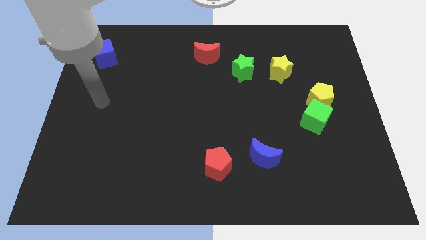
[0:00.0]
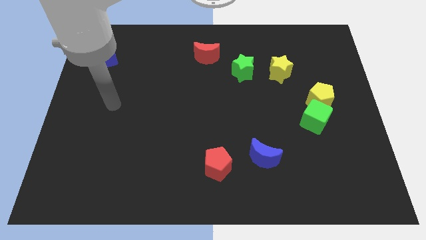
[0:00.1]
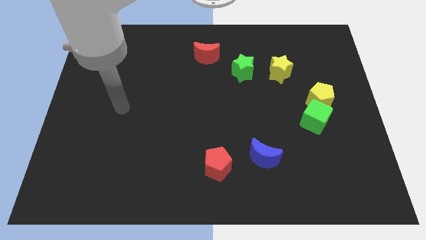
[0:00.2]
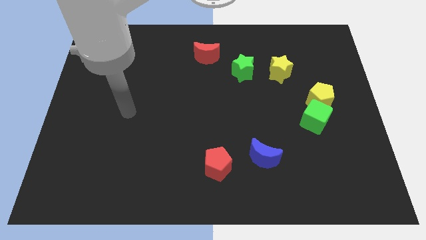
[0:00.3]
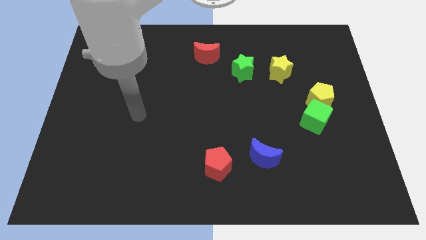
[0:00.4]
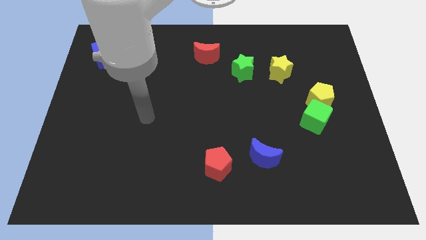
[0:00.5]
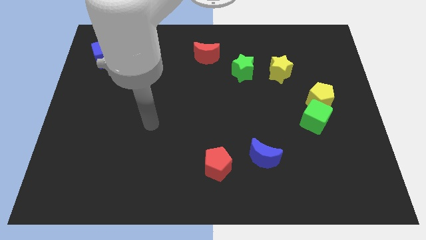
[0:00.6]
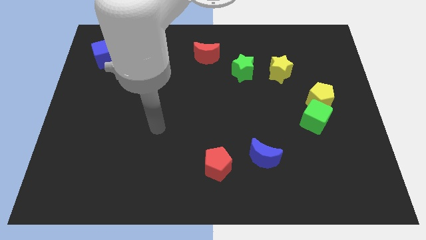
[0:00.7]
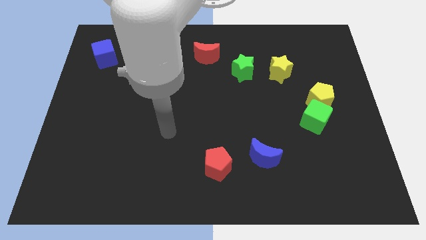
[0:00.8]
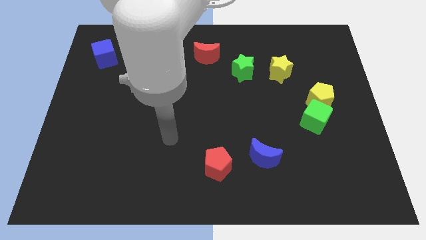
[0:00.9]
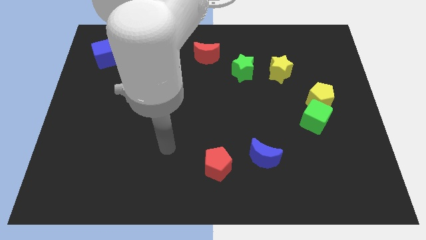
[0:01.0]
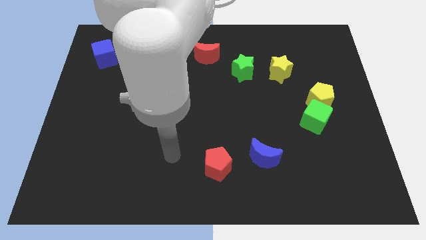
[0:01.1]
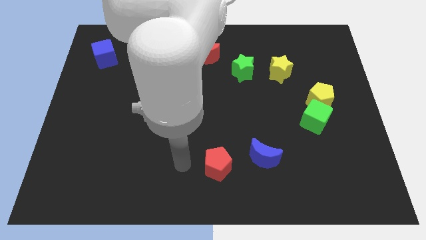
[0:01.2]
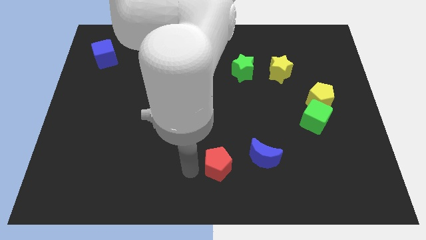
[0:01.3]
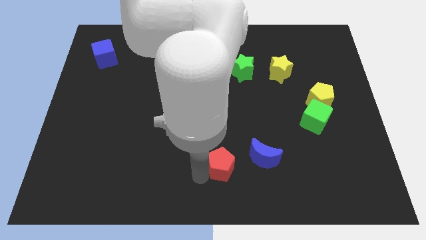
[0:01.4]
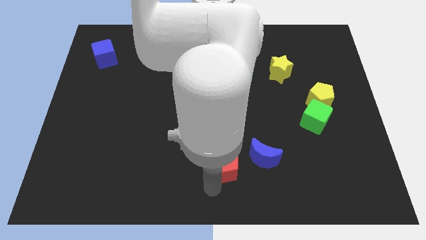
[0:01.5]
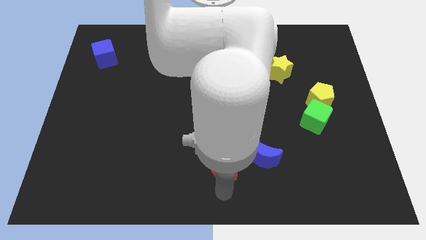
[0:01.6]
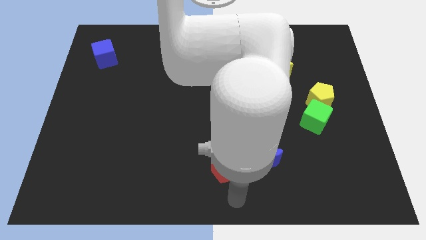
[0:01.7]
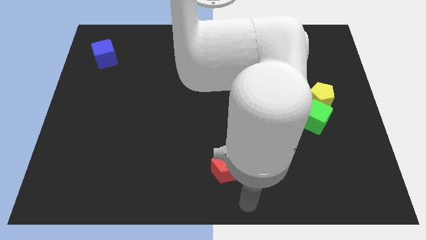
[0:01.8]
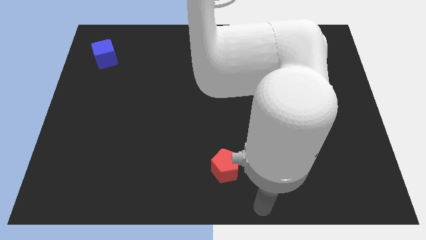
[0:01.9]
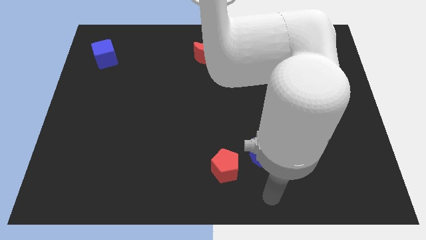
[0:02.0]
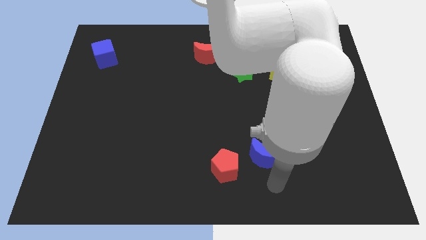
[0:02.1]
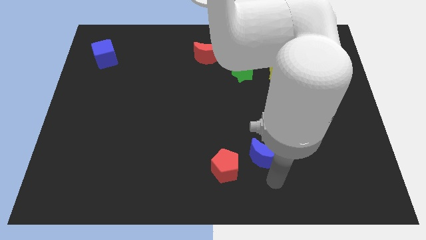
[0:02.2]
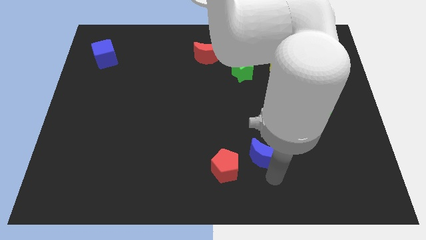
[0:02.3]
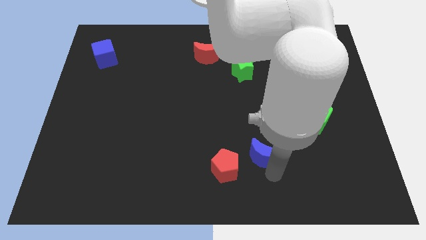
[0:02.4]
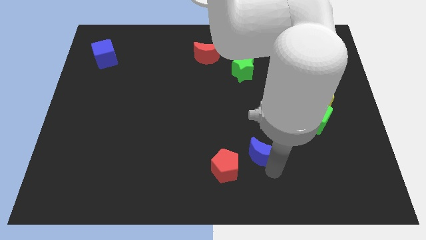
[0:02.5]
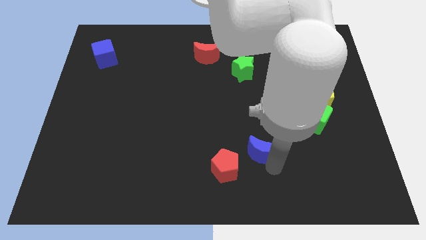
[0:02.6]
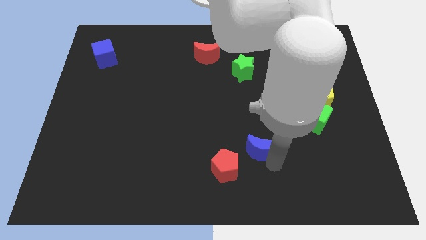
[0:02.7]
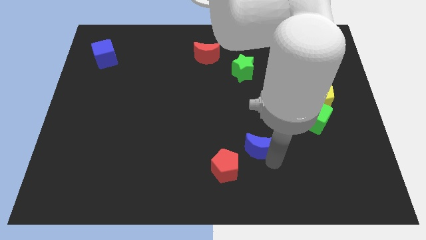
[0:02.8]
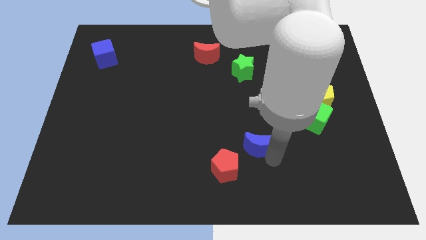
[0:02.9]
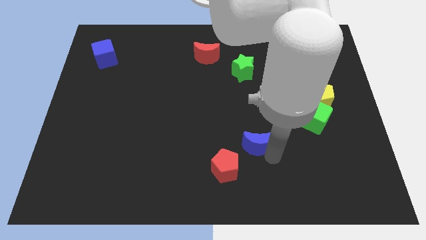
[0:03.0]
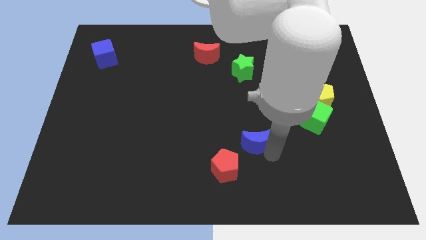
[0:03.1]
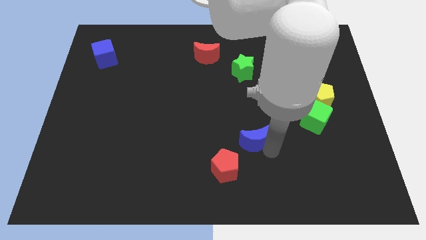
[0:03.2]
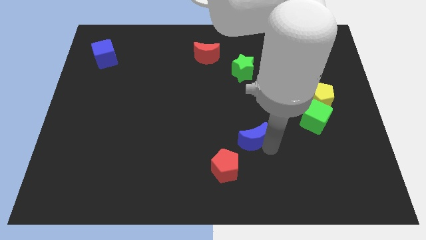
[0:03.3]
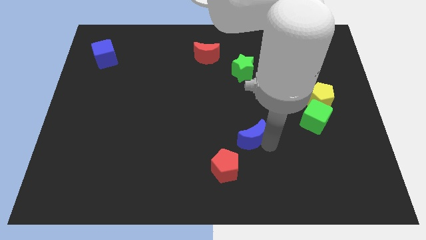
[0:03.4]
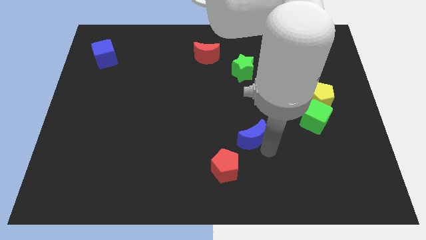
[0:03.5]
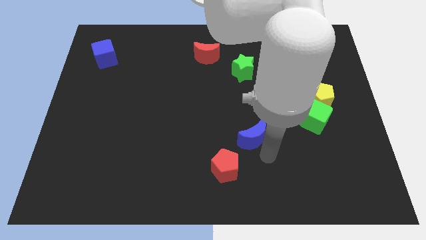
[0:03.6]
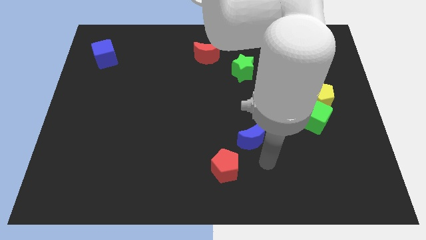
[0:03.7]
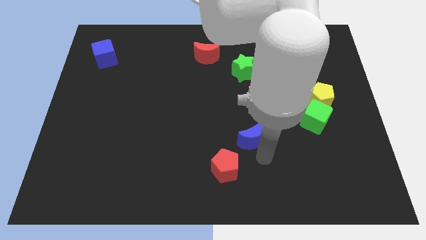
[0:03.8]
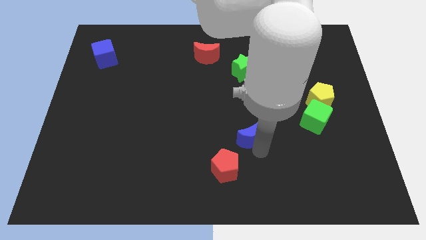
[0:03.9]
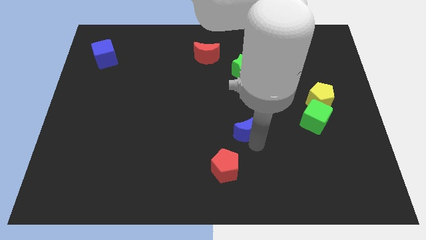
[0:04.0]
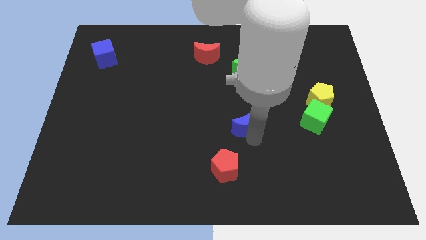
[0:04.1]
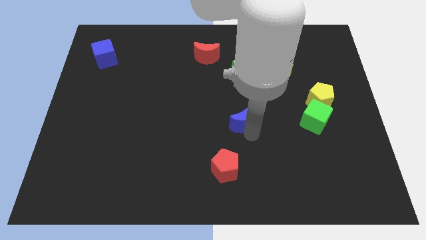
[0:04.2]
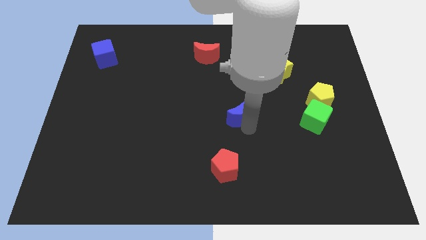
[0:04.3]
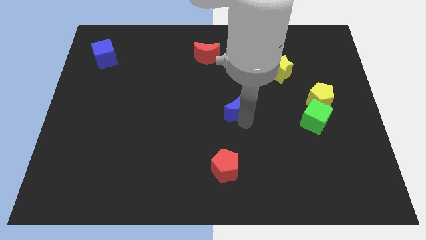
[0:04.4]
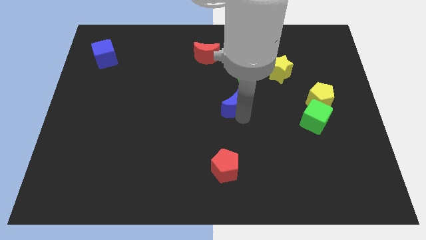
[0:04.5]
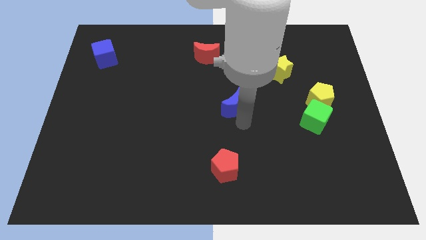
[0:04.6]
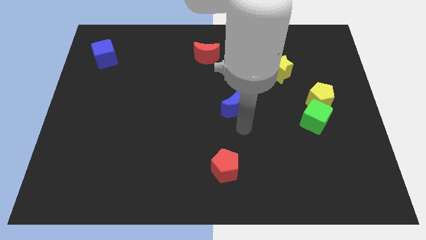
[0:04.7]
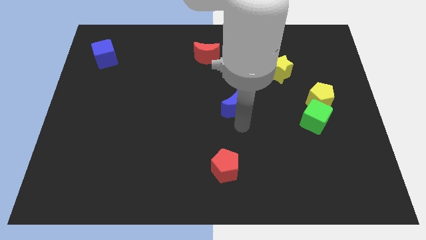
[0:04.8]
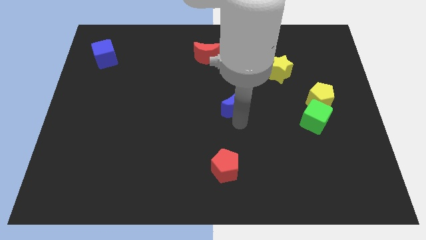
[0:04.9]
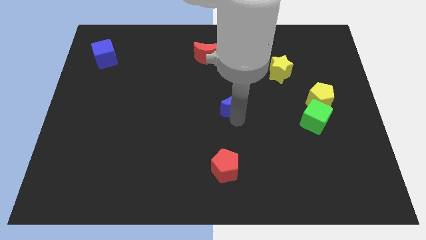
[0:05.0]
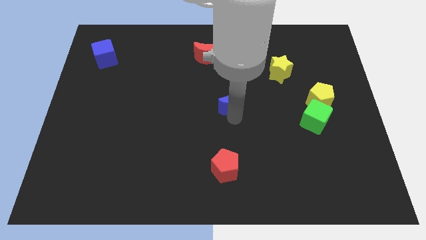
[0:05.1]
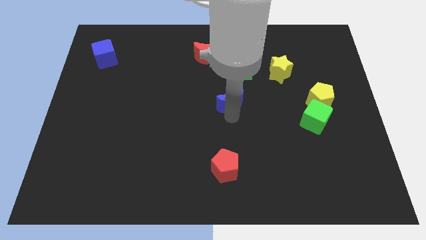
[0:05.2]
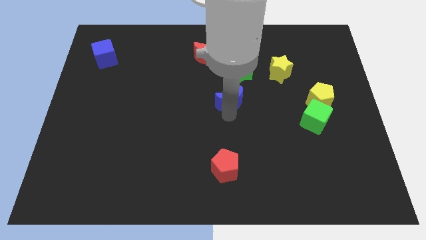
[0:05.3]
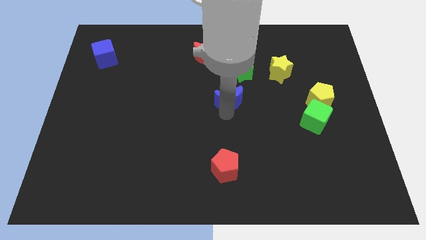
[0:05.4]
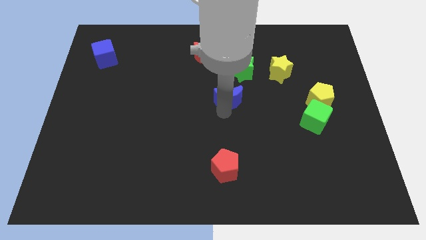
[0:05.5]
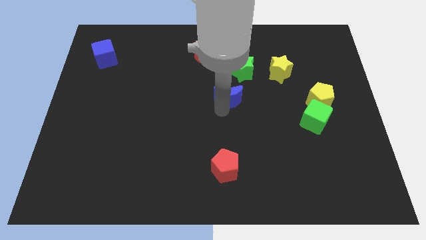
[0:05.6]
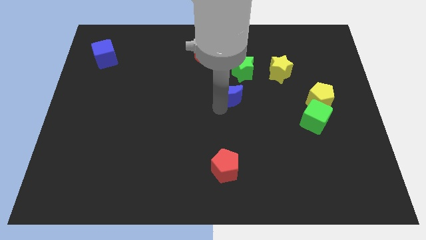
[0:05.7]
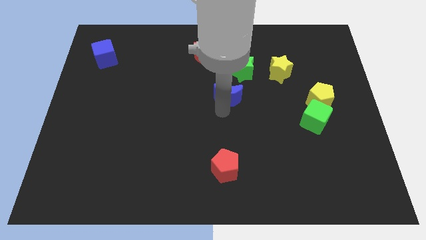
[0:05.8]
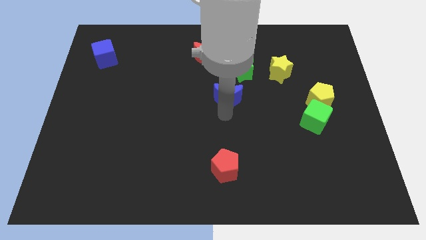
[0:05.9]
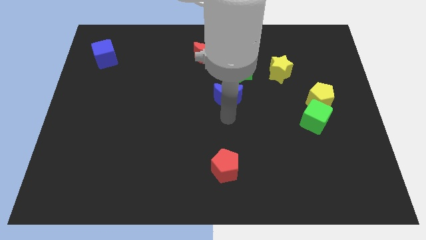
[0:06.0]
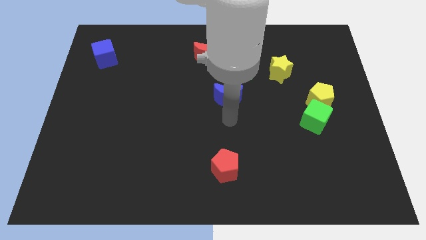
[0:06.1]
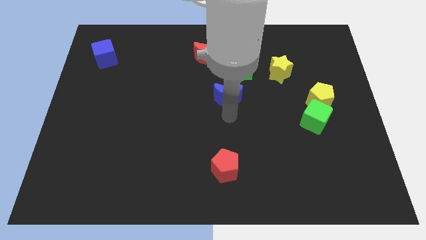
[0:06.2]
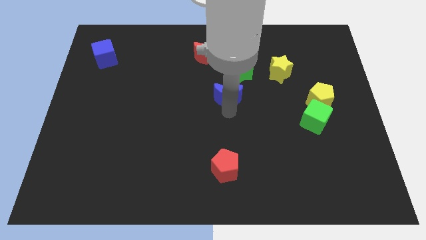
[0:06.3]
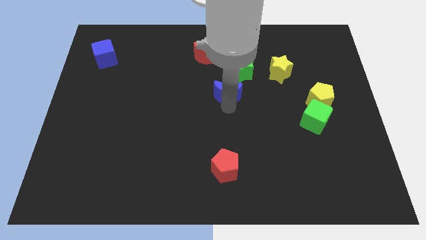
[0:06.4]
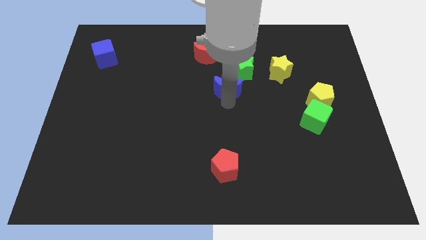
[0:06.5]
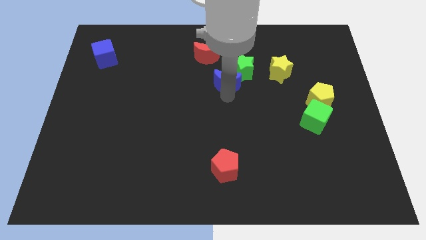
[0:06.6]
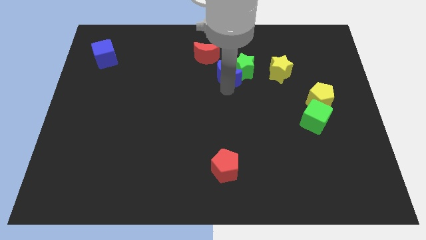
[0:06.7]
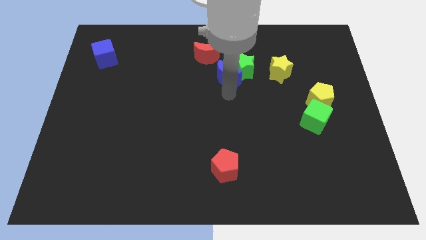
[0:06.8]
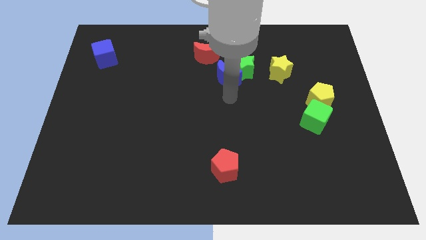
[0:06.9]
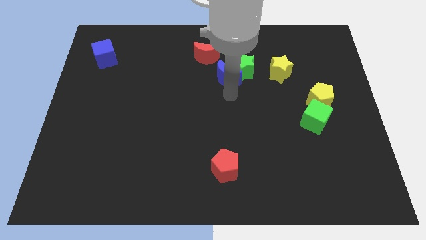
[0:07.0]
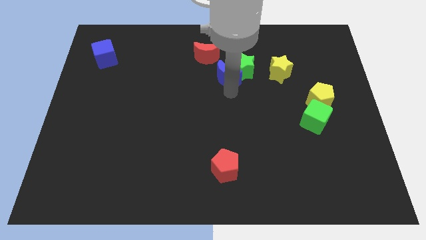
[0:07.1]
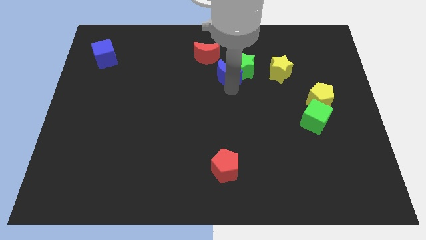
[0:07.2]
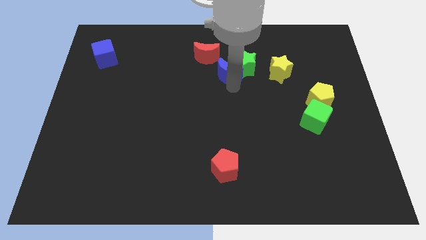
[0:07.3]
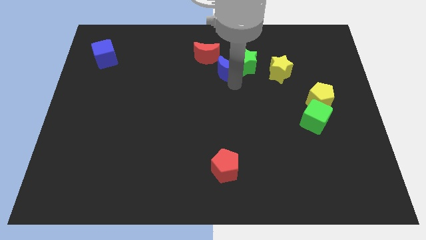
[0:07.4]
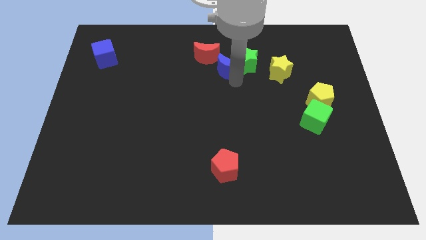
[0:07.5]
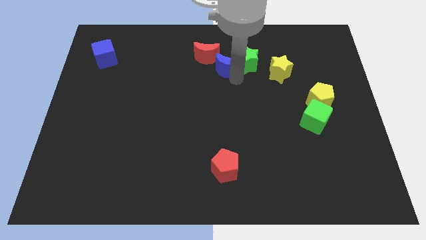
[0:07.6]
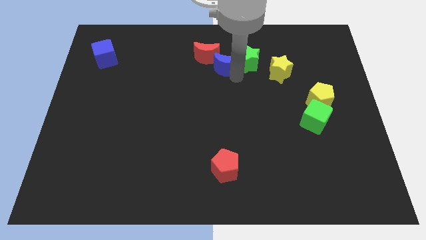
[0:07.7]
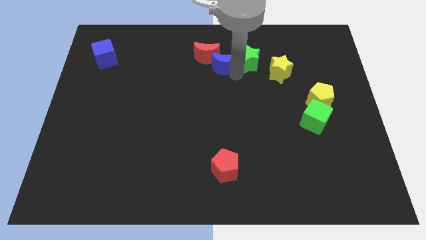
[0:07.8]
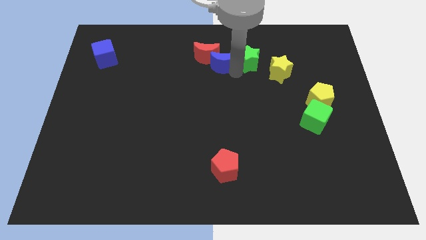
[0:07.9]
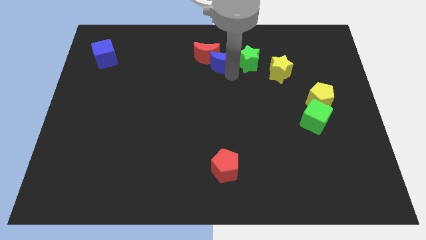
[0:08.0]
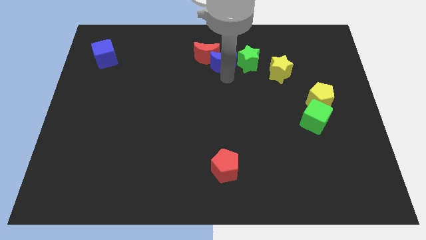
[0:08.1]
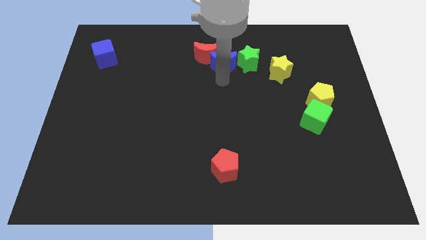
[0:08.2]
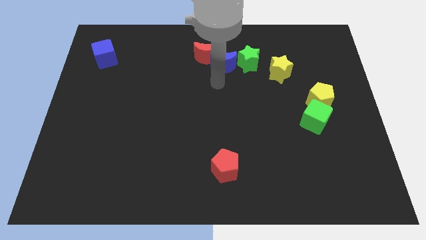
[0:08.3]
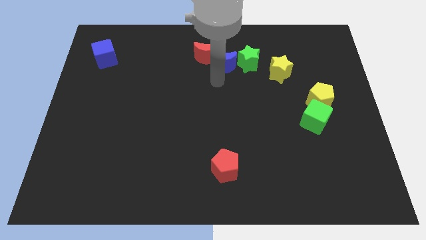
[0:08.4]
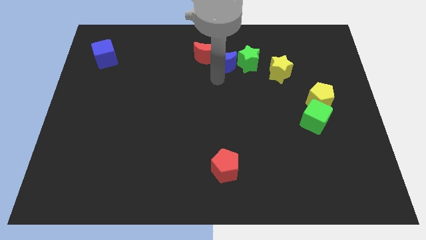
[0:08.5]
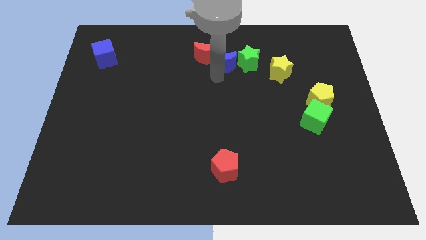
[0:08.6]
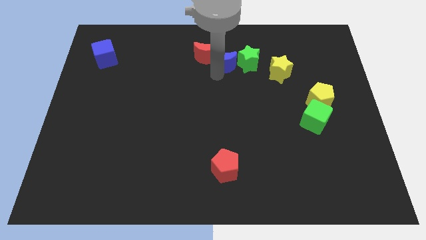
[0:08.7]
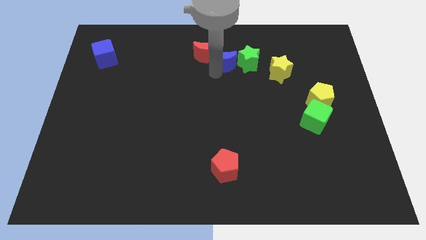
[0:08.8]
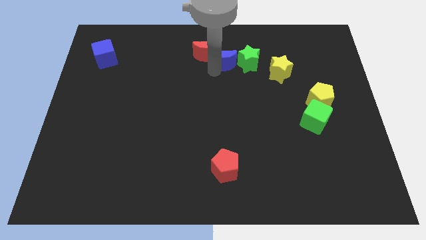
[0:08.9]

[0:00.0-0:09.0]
move the blue moon to the top left side of the green star
